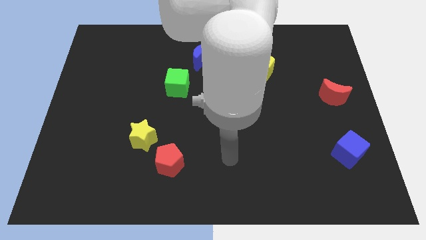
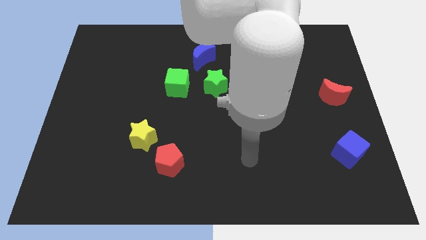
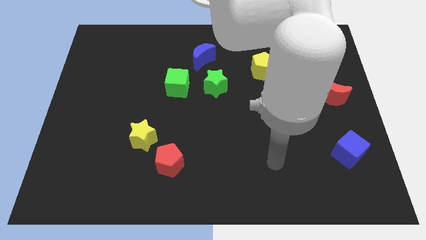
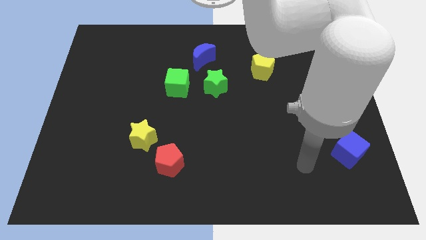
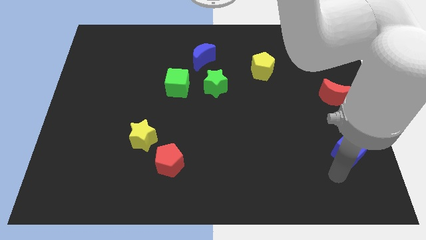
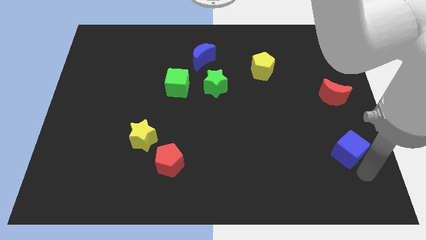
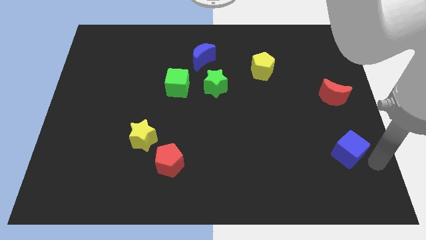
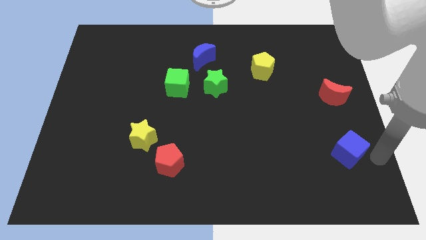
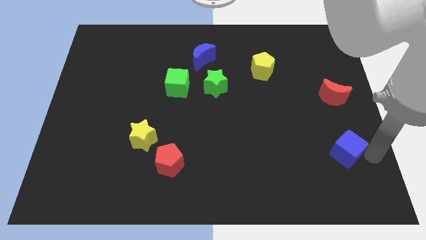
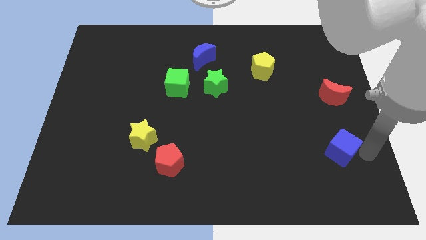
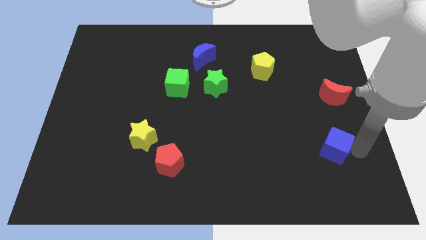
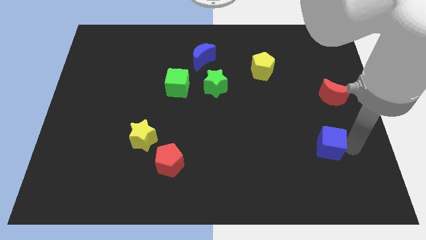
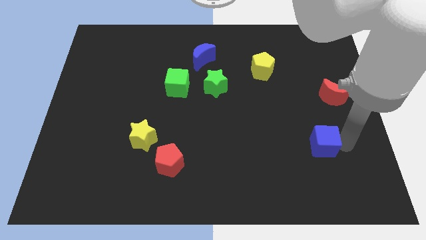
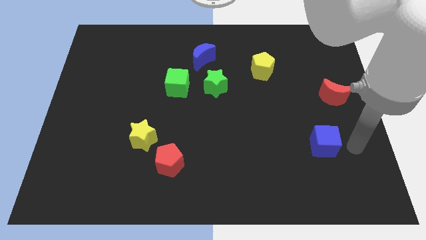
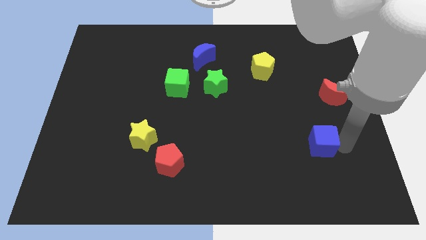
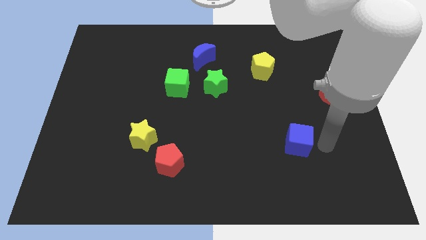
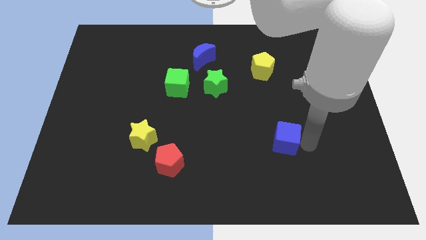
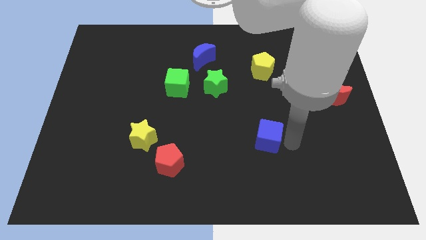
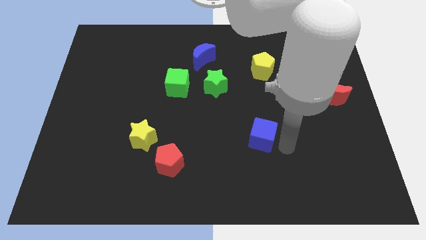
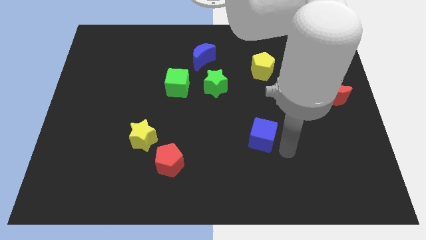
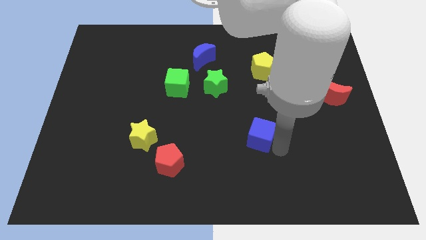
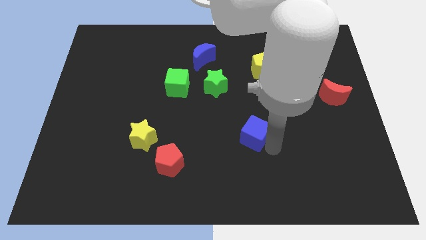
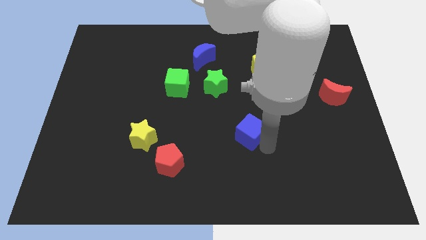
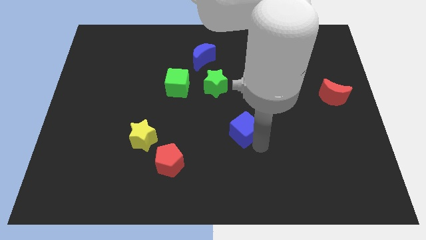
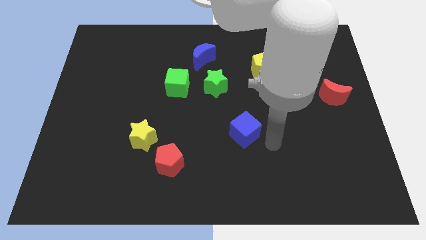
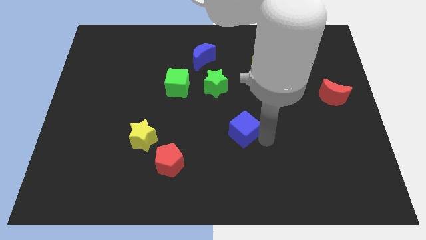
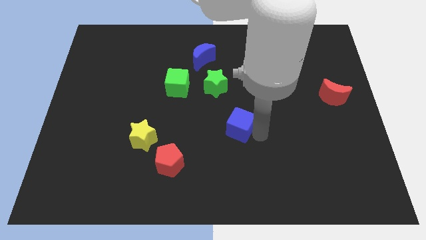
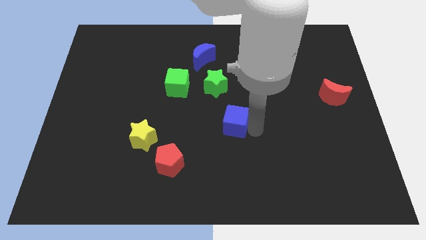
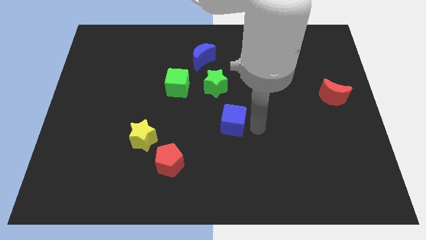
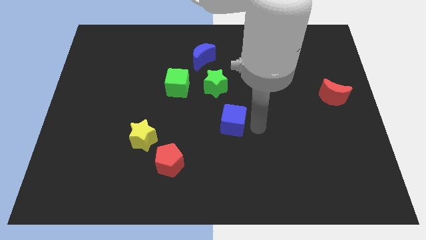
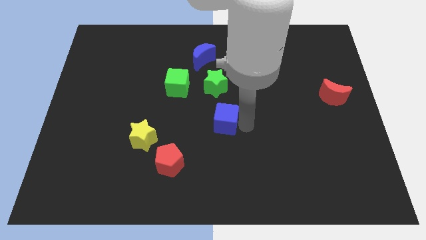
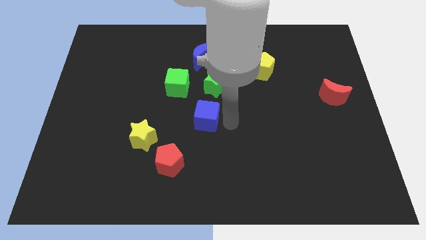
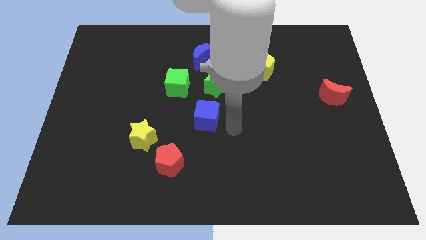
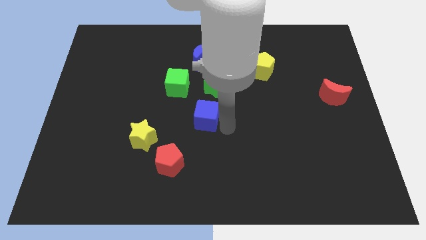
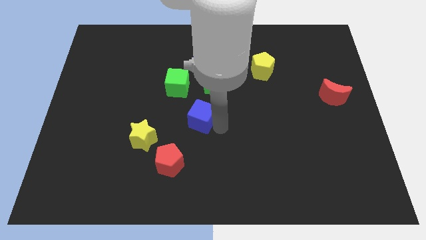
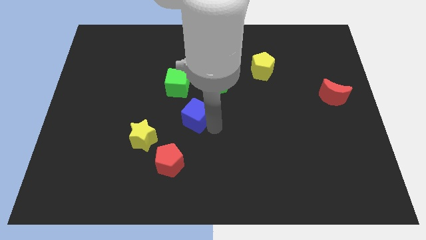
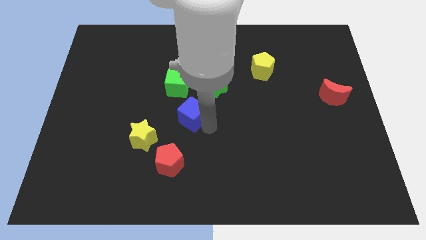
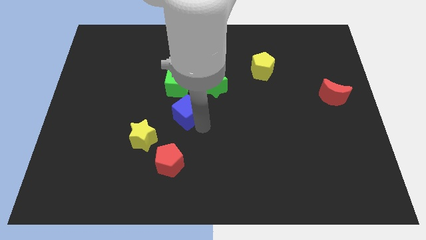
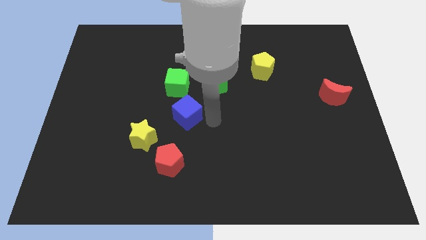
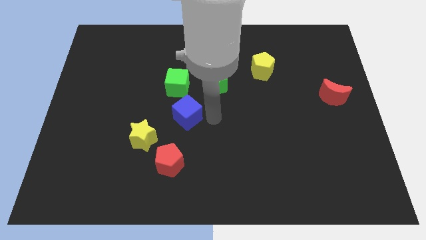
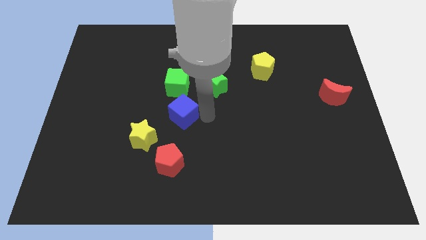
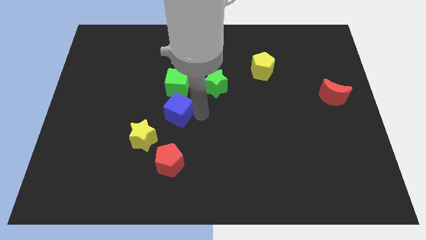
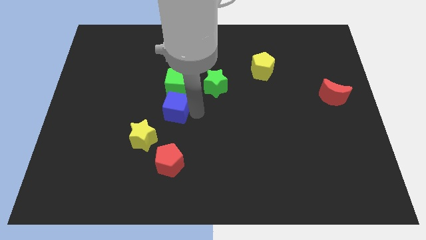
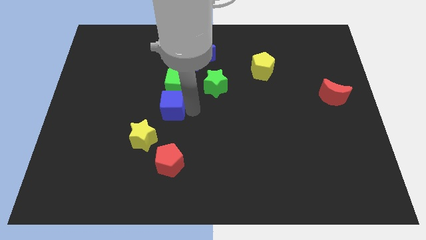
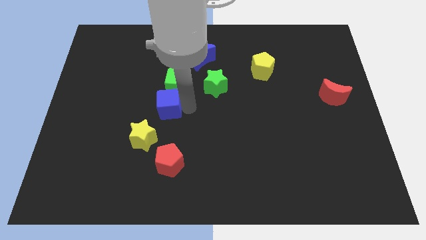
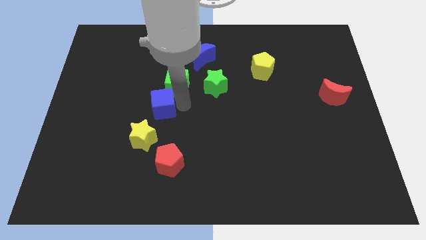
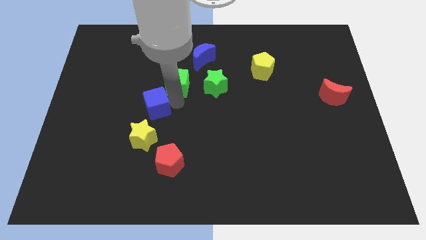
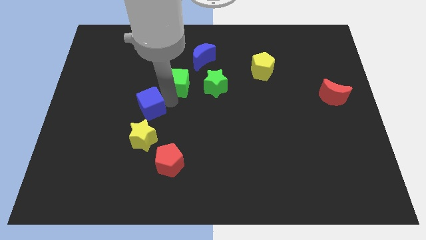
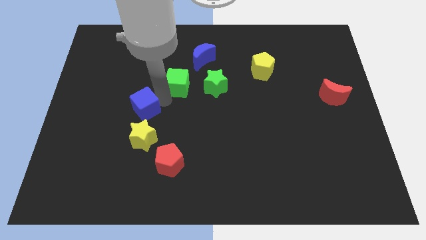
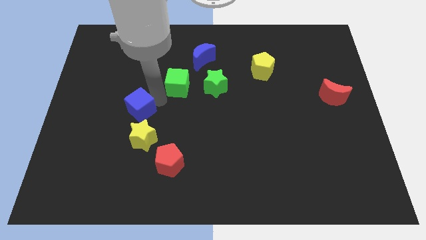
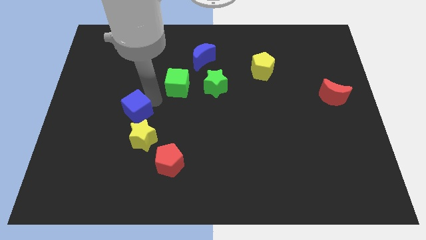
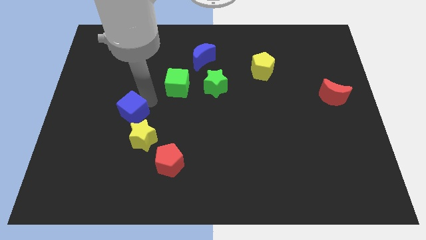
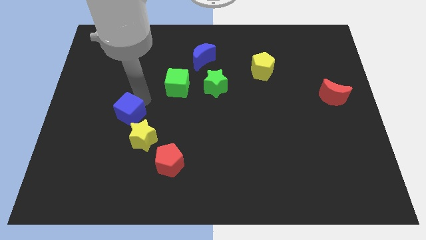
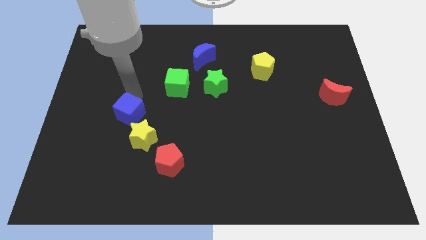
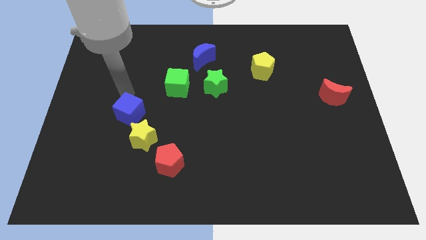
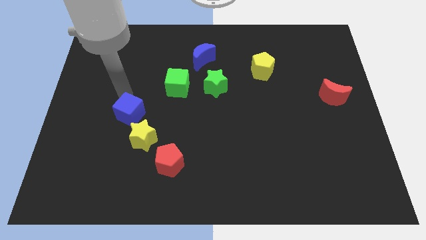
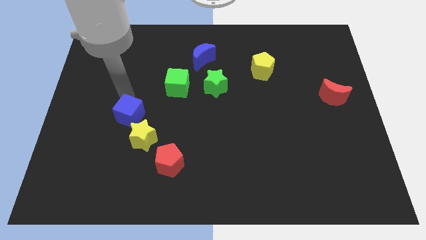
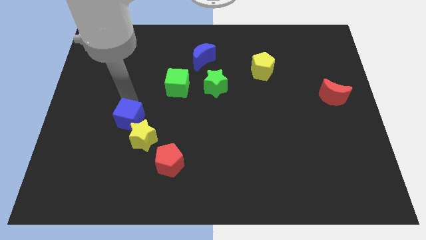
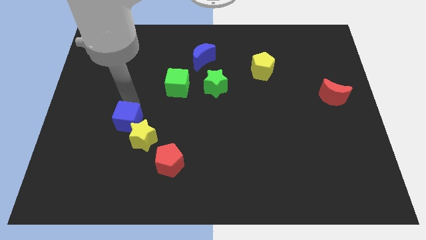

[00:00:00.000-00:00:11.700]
move the blue cube left of the yellow star

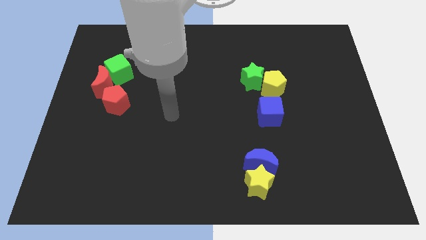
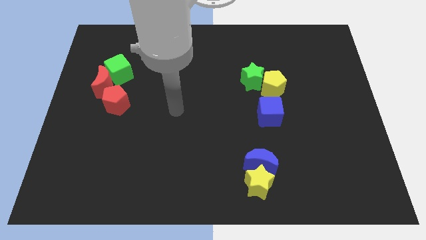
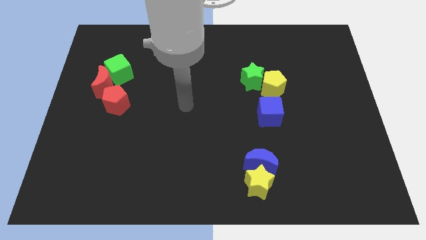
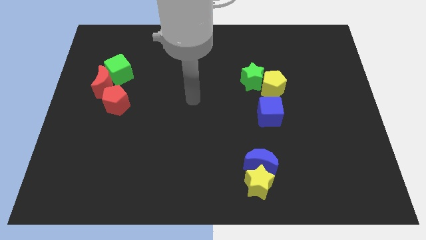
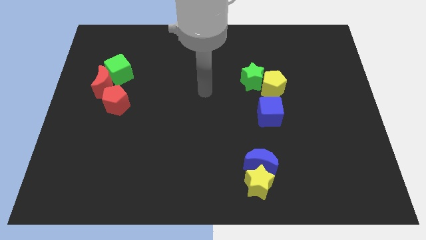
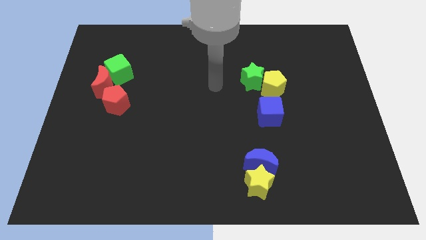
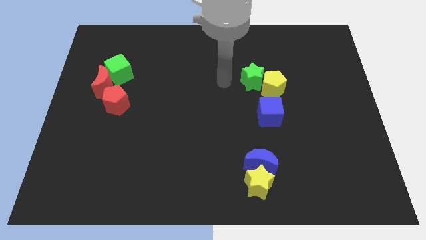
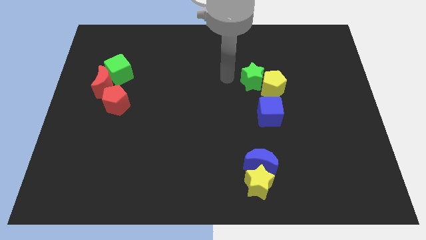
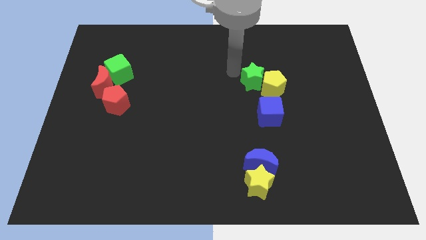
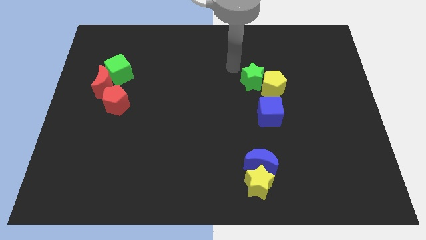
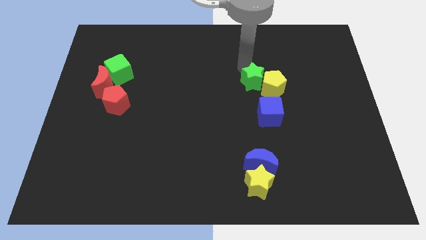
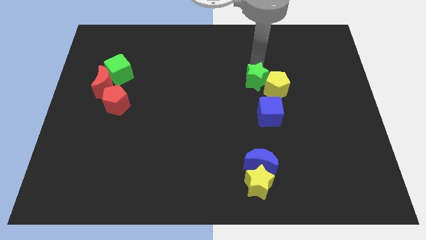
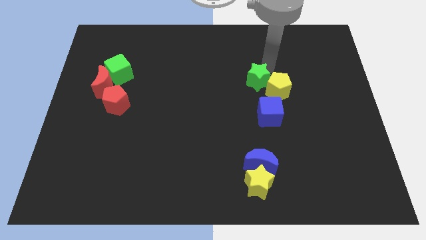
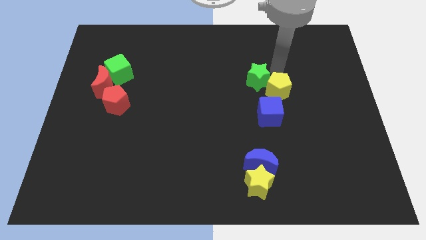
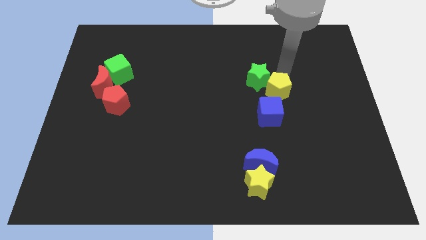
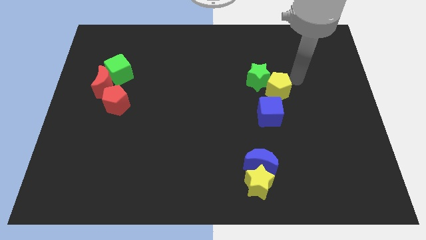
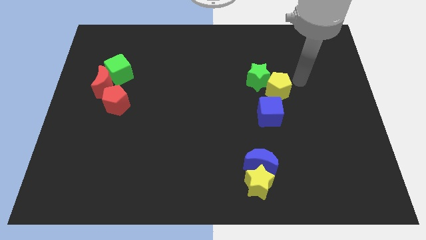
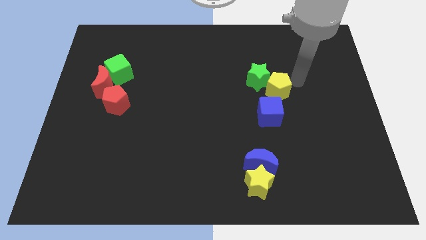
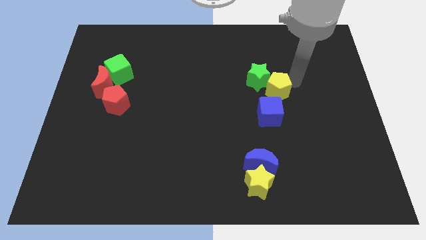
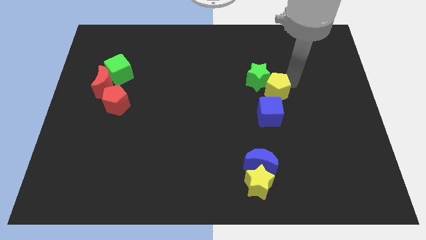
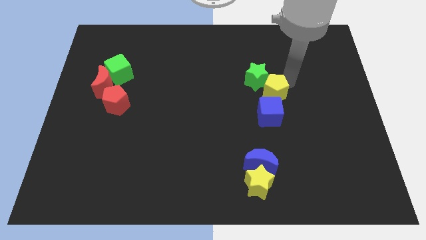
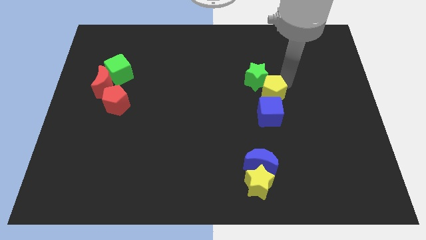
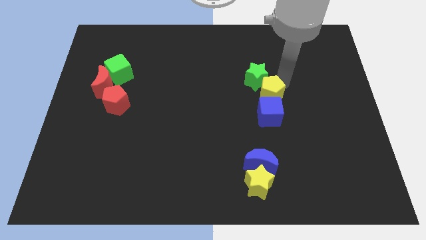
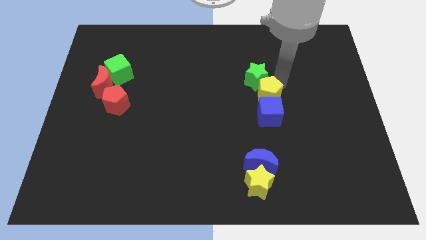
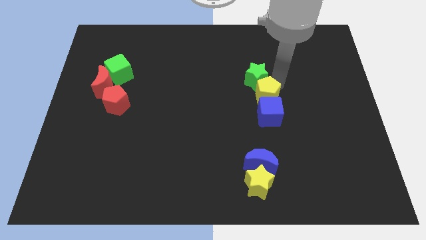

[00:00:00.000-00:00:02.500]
put the yellow pentagon diagonally down and to the left of the green star

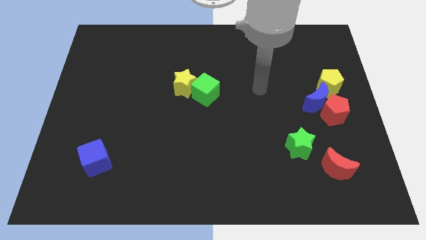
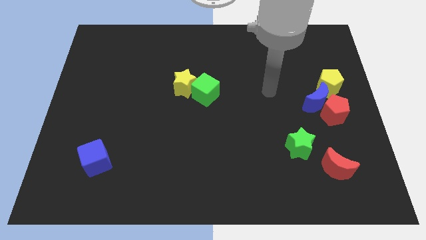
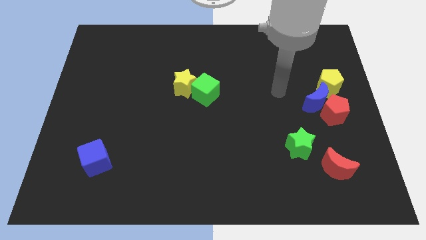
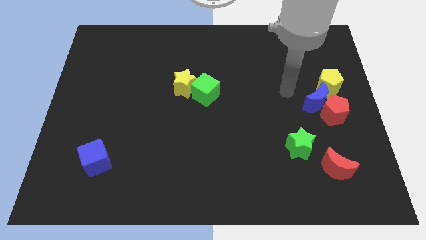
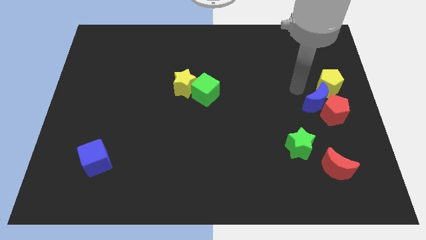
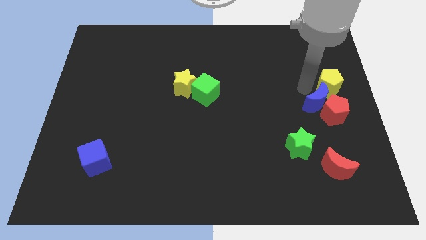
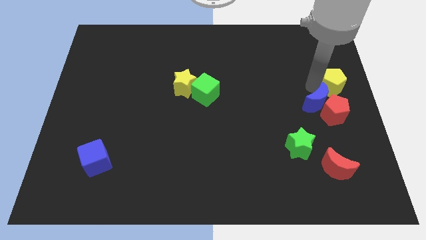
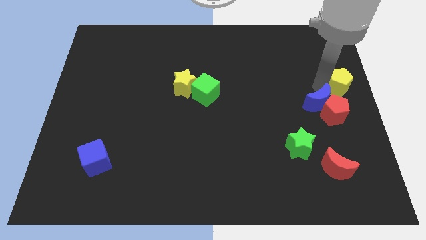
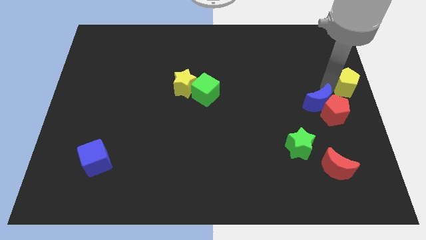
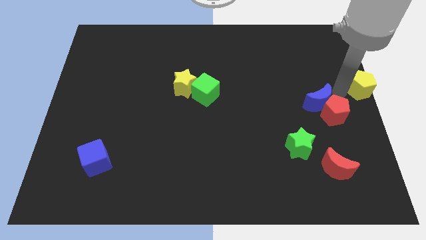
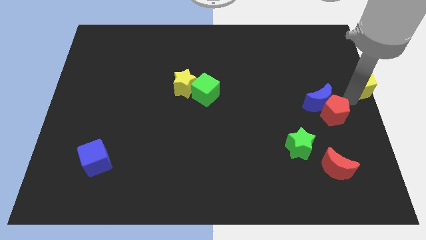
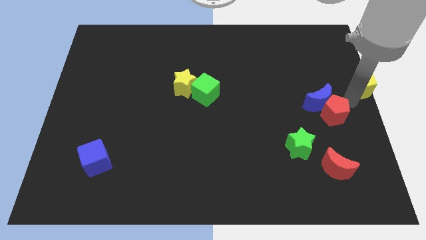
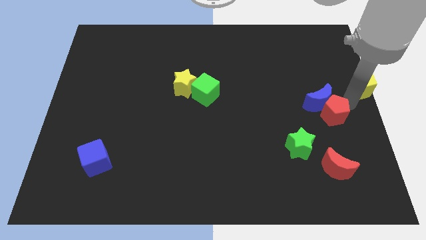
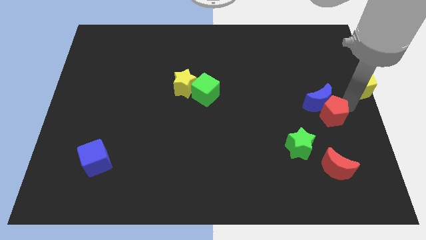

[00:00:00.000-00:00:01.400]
push the red pentagon to the top right of the green star
